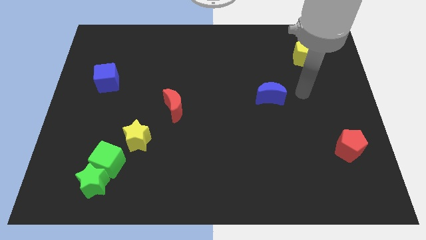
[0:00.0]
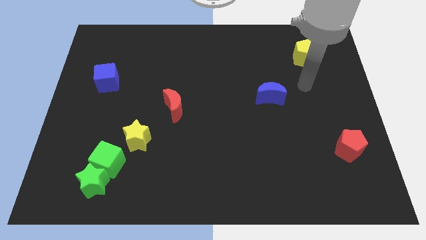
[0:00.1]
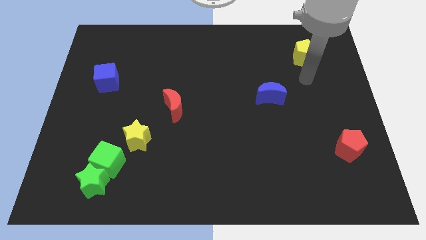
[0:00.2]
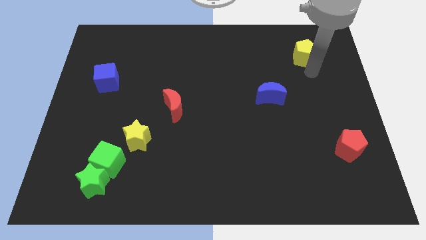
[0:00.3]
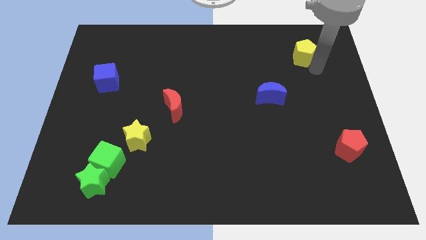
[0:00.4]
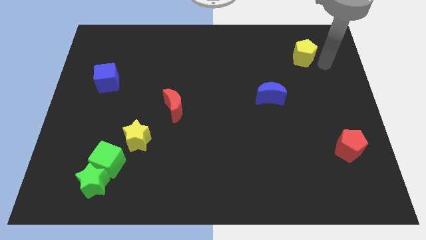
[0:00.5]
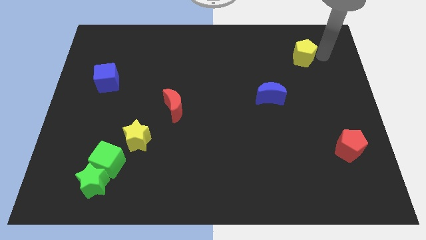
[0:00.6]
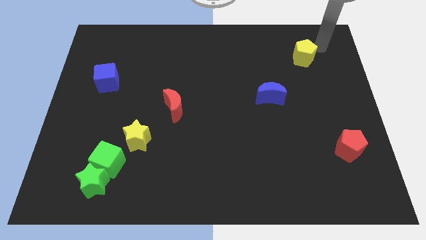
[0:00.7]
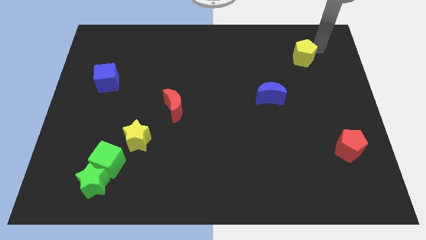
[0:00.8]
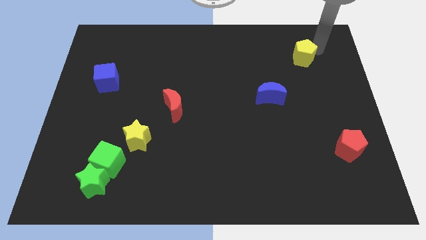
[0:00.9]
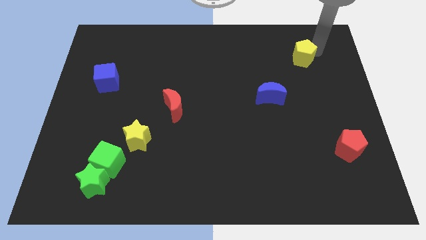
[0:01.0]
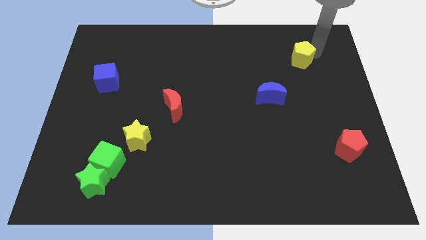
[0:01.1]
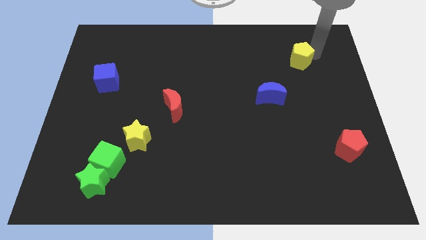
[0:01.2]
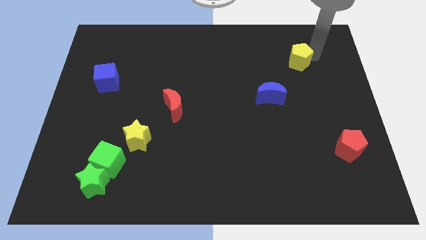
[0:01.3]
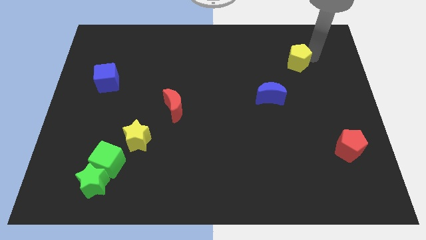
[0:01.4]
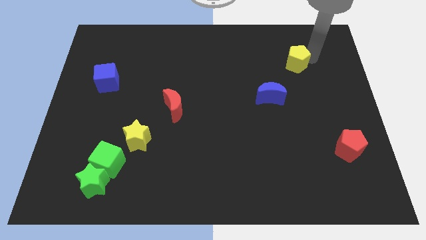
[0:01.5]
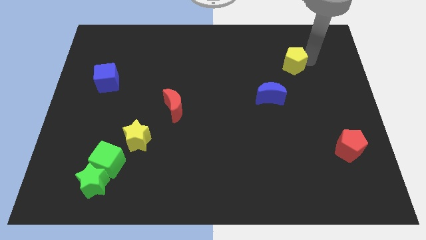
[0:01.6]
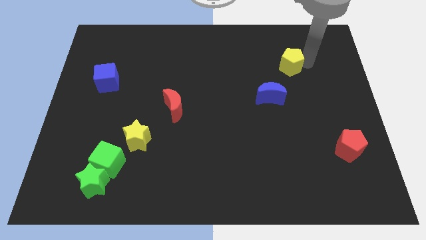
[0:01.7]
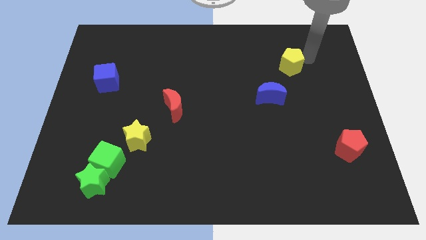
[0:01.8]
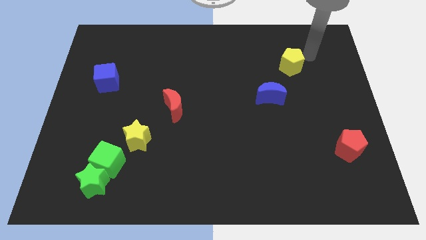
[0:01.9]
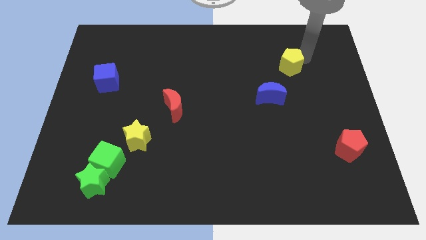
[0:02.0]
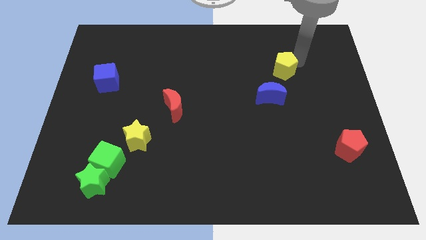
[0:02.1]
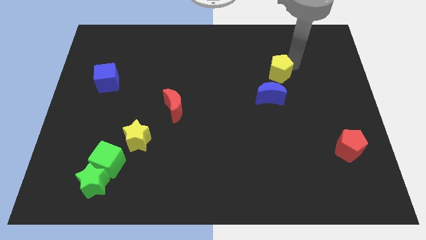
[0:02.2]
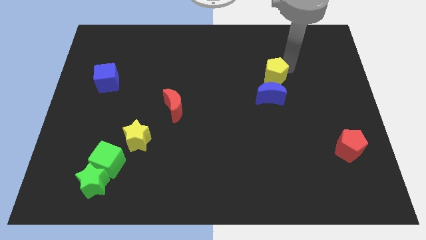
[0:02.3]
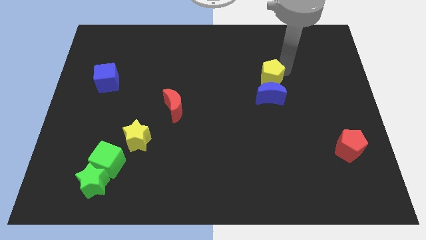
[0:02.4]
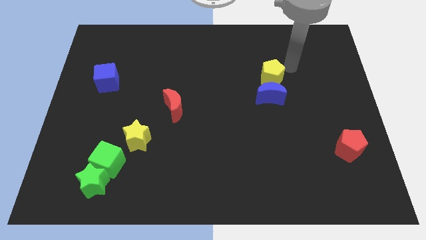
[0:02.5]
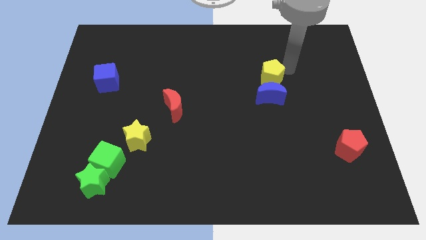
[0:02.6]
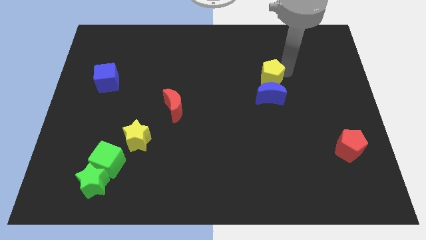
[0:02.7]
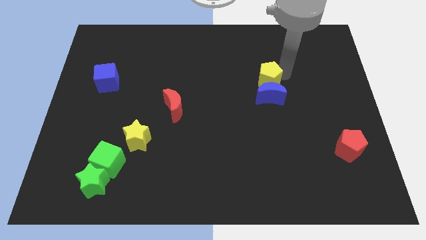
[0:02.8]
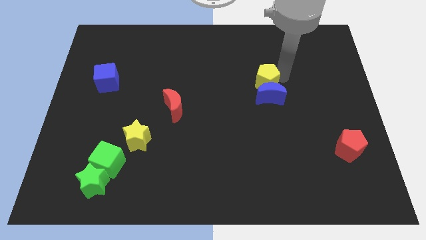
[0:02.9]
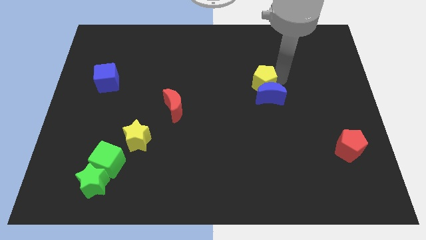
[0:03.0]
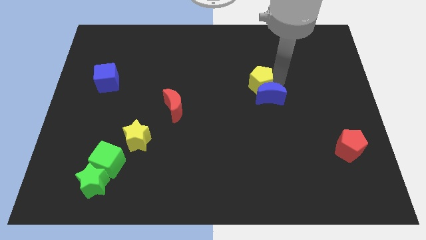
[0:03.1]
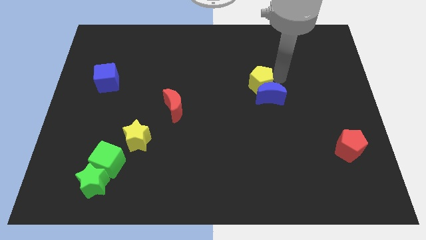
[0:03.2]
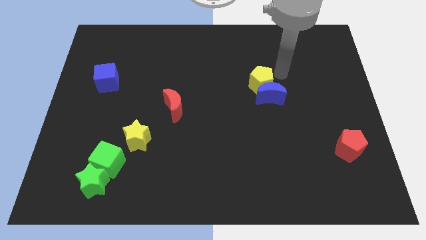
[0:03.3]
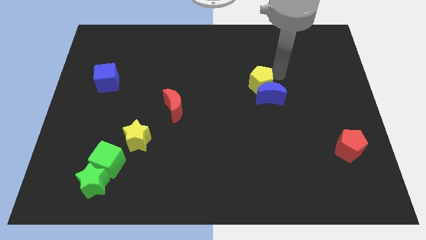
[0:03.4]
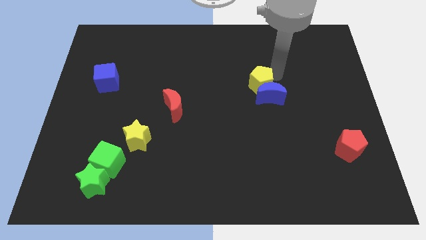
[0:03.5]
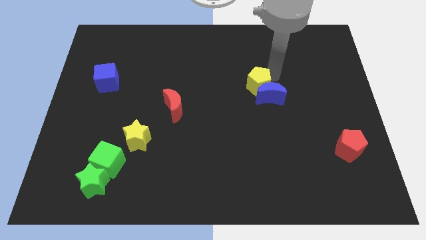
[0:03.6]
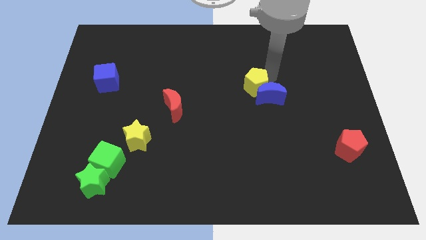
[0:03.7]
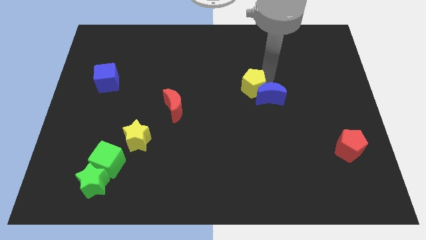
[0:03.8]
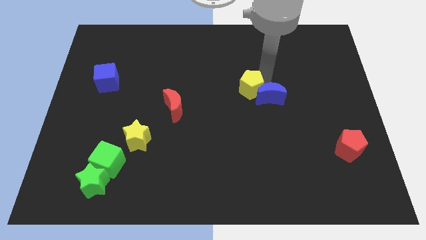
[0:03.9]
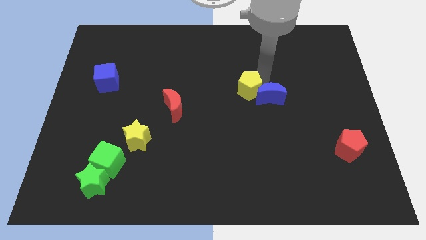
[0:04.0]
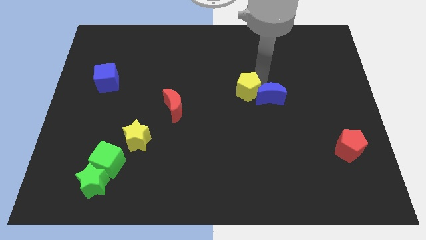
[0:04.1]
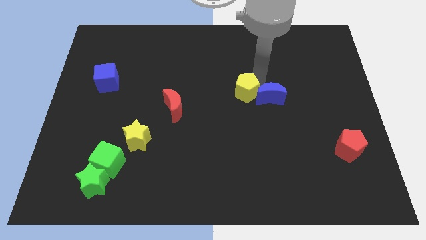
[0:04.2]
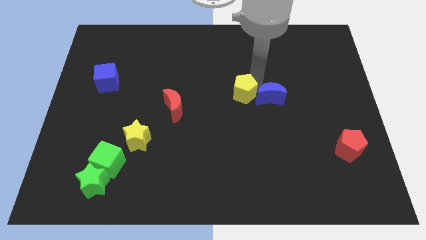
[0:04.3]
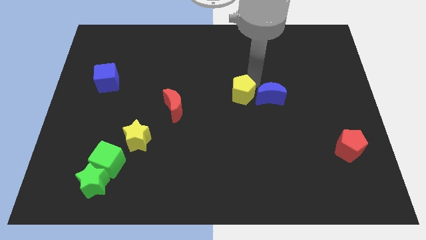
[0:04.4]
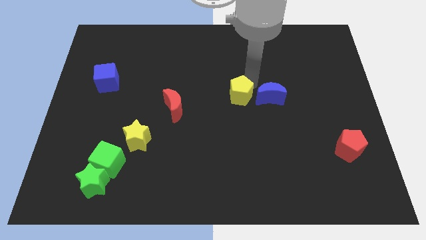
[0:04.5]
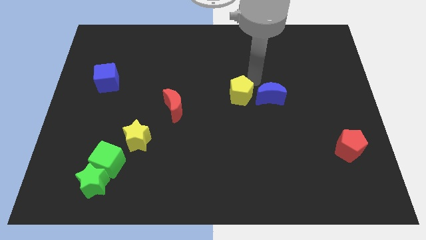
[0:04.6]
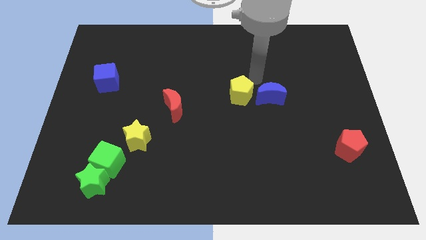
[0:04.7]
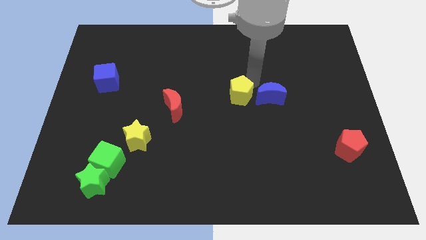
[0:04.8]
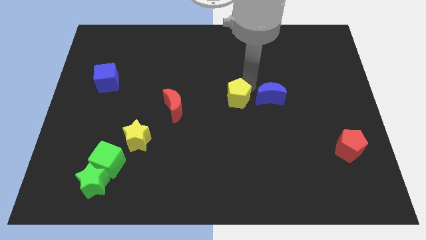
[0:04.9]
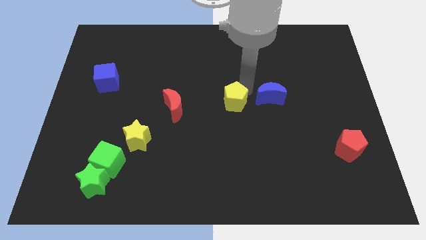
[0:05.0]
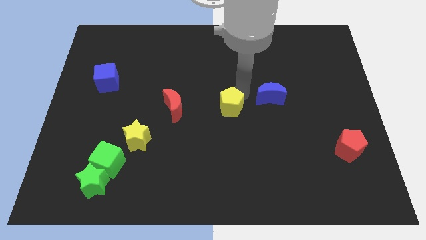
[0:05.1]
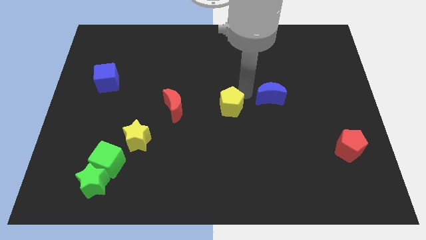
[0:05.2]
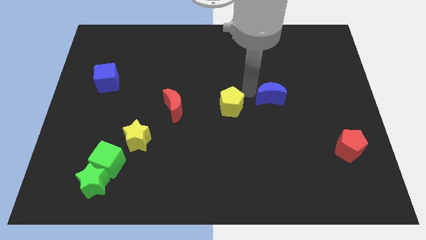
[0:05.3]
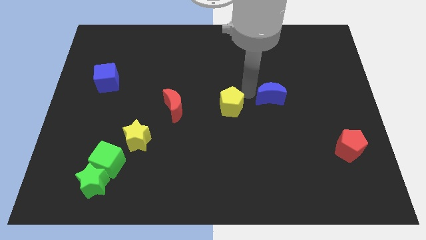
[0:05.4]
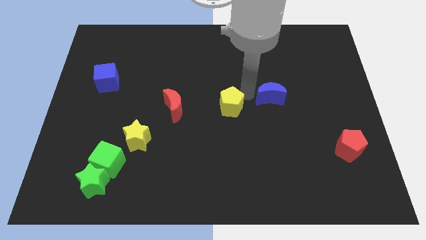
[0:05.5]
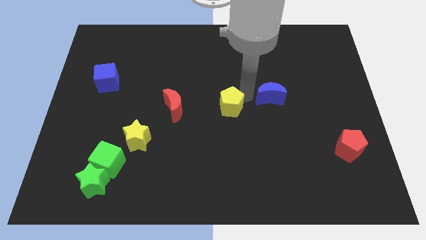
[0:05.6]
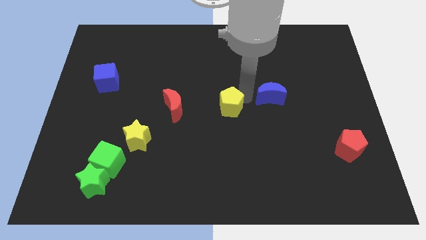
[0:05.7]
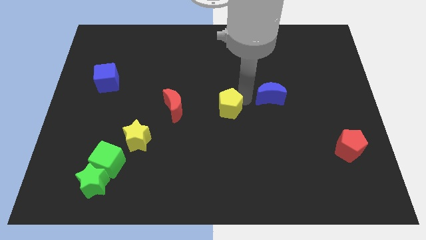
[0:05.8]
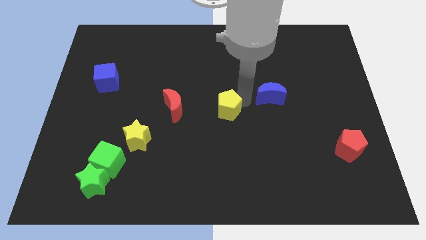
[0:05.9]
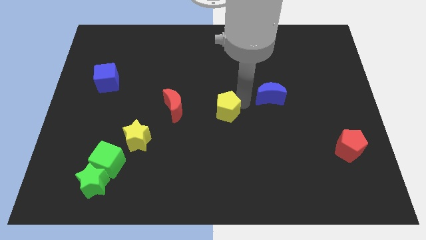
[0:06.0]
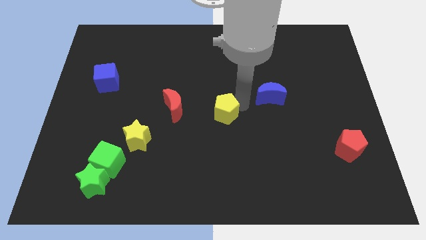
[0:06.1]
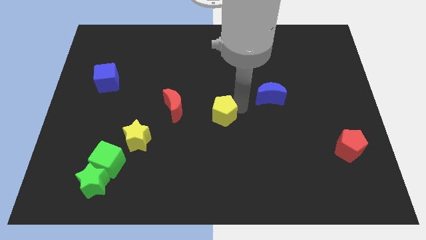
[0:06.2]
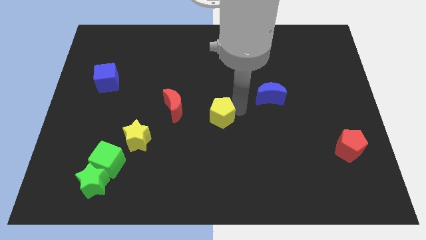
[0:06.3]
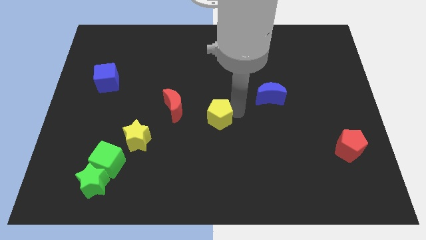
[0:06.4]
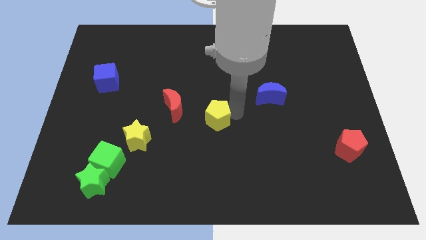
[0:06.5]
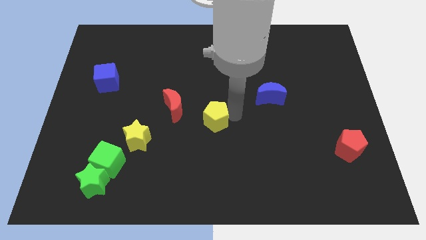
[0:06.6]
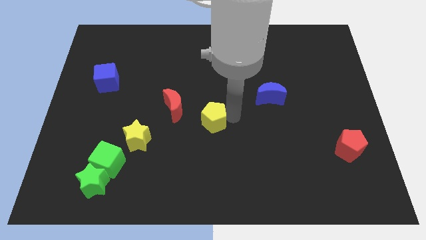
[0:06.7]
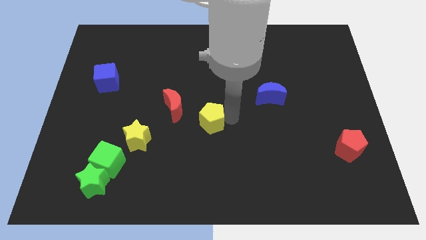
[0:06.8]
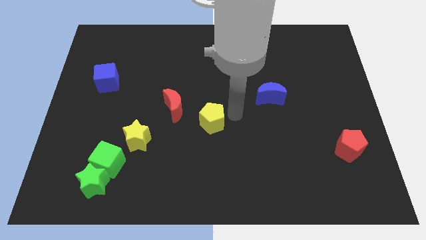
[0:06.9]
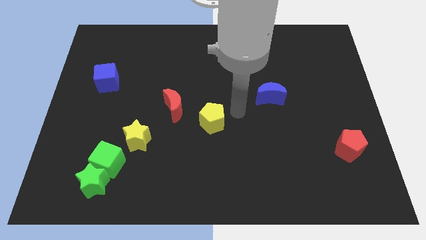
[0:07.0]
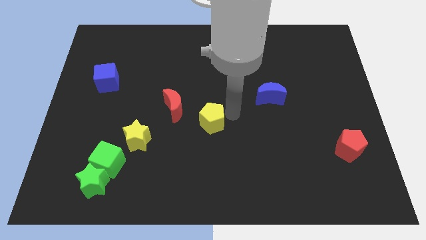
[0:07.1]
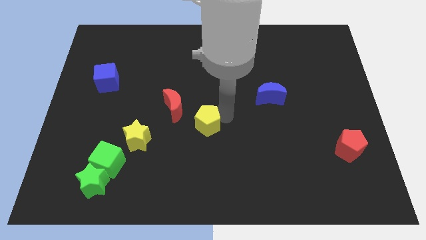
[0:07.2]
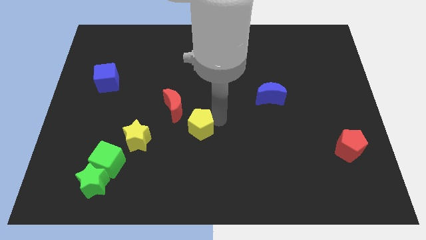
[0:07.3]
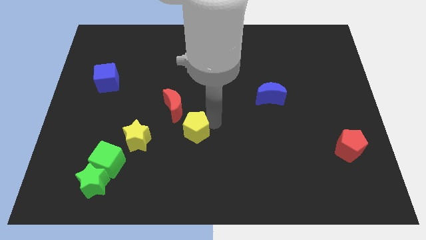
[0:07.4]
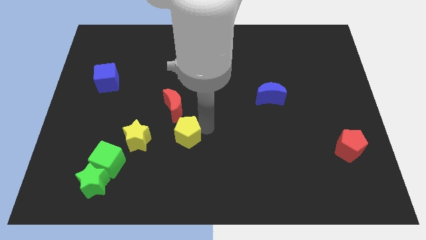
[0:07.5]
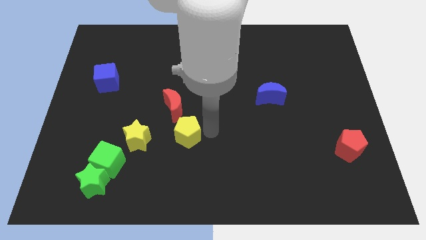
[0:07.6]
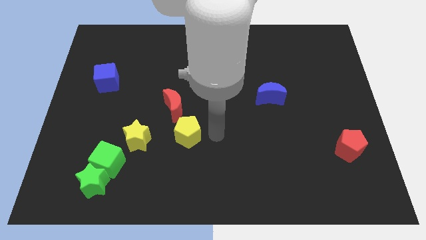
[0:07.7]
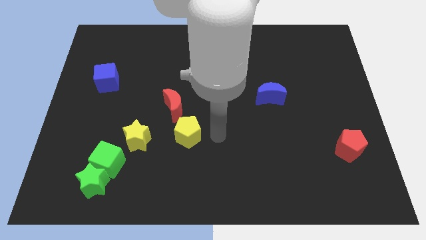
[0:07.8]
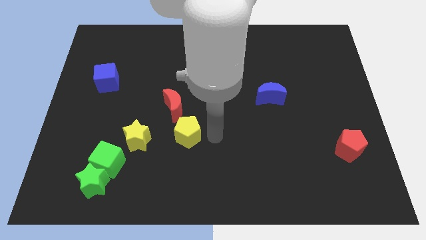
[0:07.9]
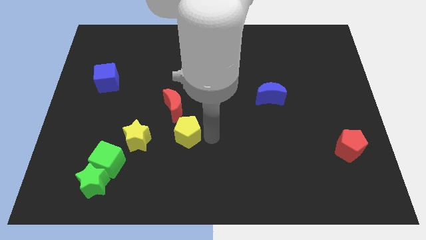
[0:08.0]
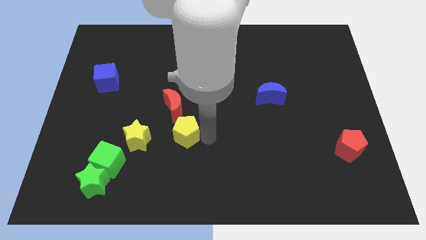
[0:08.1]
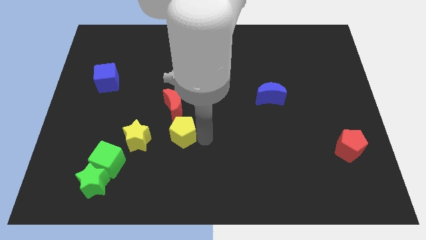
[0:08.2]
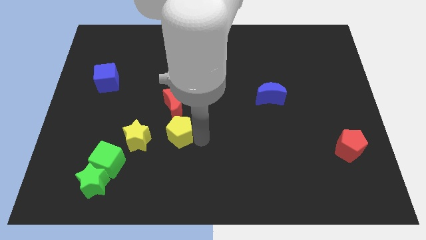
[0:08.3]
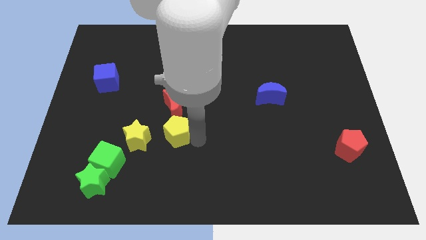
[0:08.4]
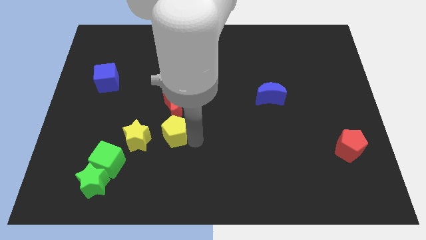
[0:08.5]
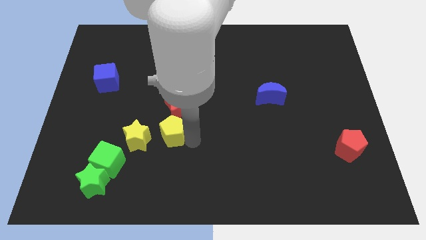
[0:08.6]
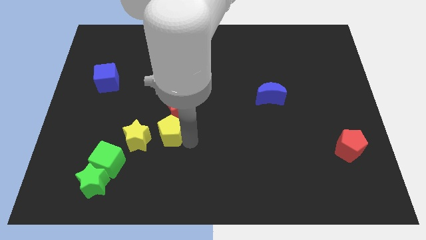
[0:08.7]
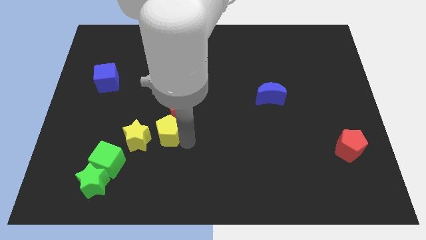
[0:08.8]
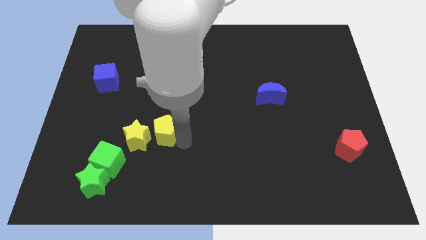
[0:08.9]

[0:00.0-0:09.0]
move the yellow pentagon towards the yellow star
